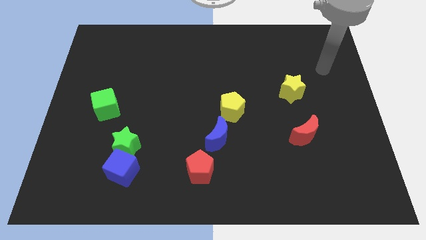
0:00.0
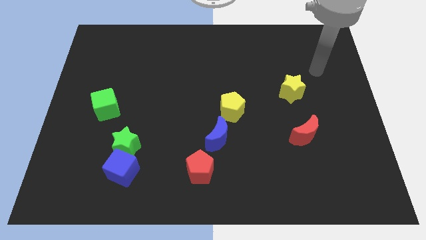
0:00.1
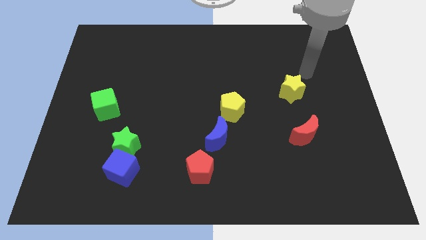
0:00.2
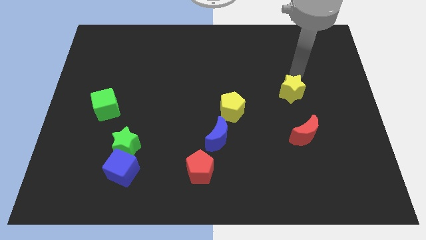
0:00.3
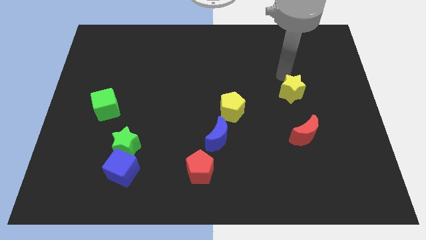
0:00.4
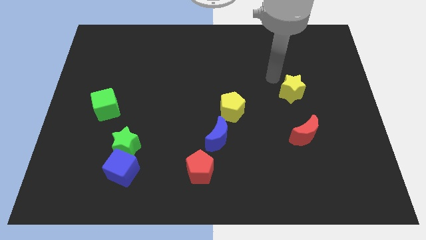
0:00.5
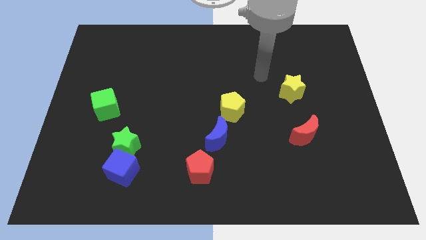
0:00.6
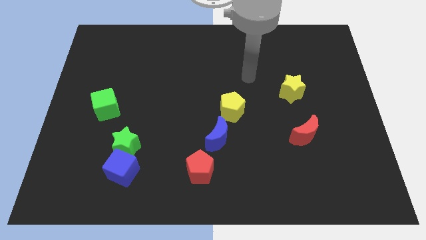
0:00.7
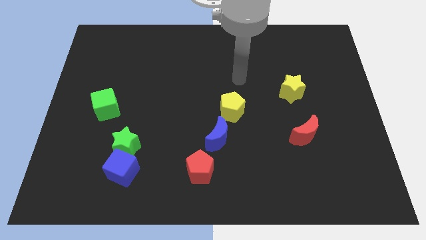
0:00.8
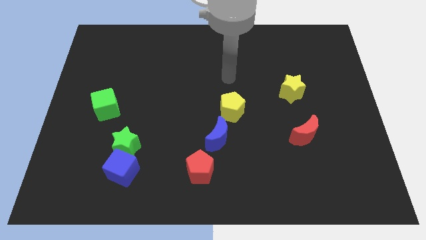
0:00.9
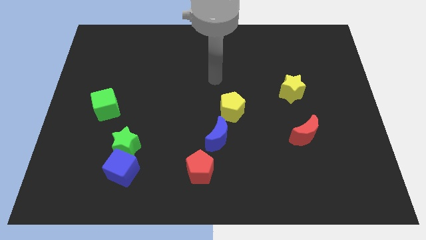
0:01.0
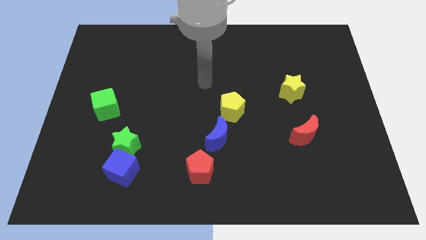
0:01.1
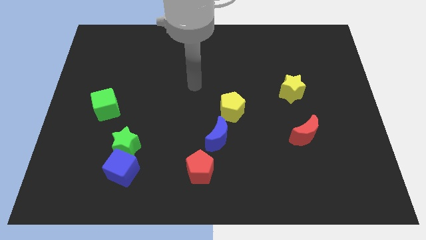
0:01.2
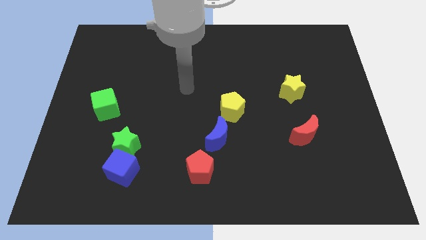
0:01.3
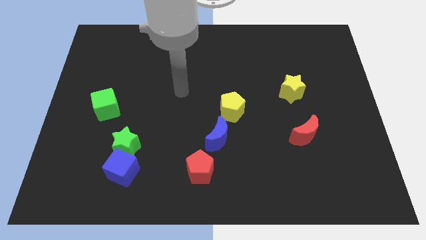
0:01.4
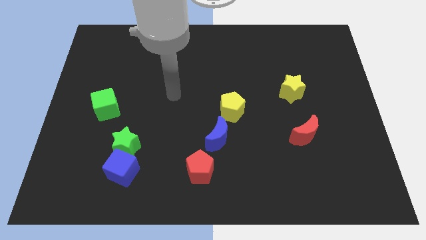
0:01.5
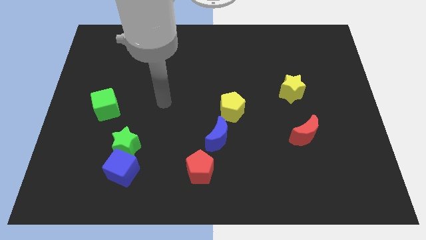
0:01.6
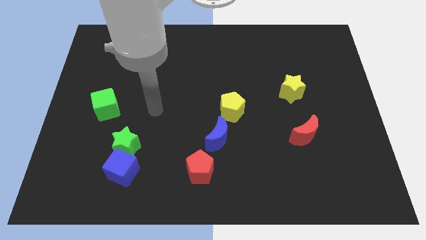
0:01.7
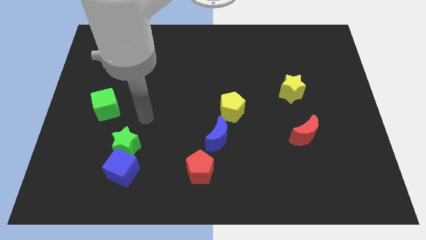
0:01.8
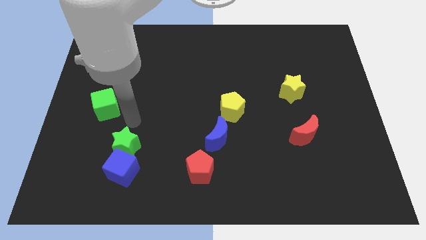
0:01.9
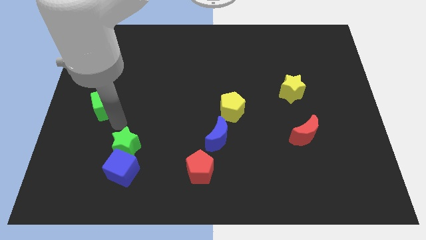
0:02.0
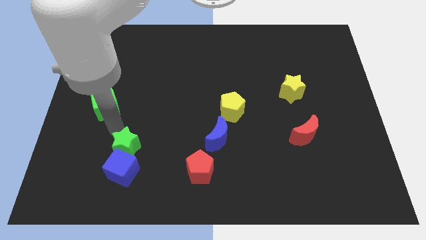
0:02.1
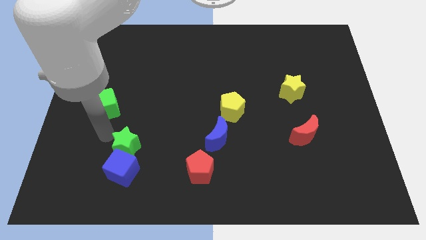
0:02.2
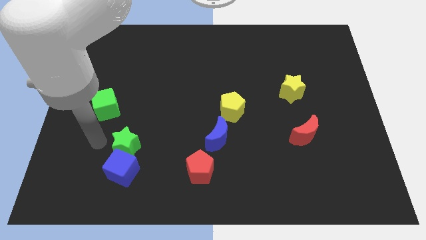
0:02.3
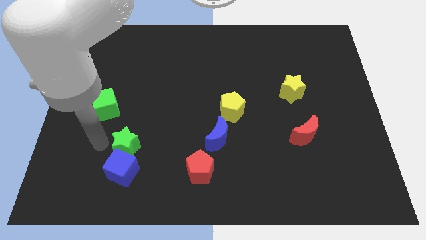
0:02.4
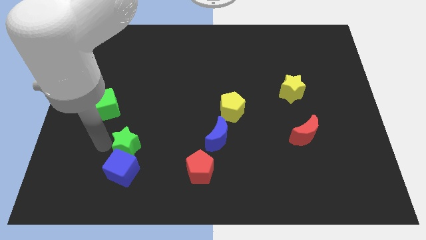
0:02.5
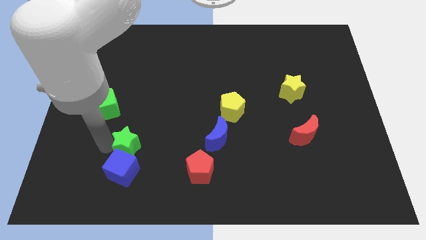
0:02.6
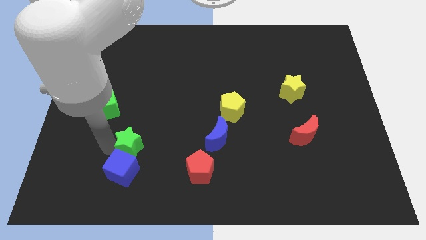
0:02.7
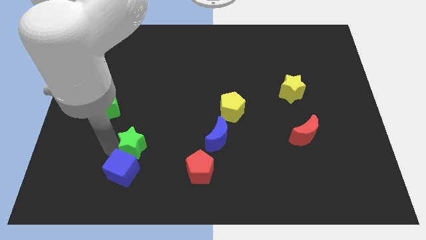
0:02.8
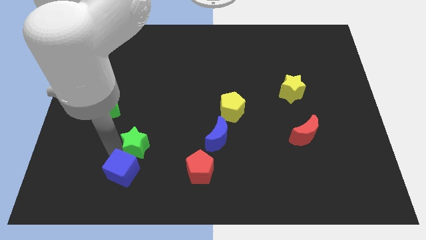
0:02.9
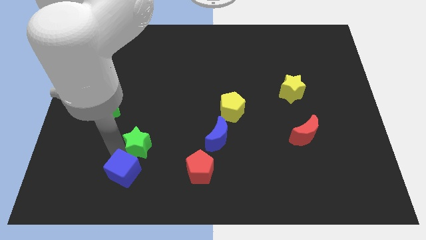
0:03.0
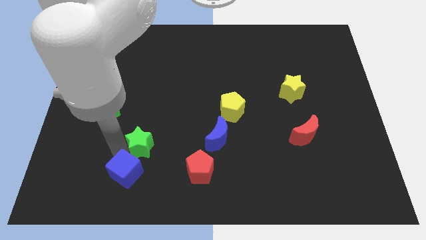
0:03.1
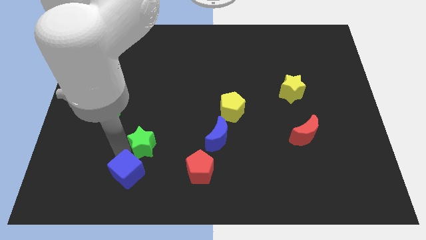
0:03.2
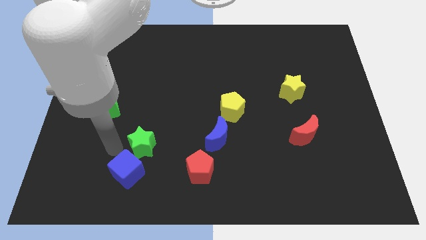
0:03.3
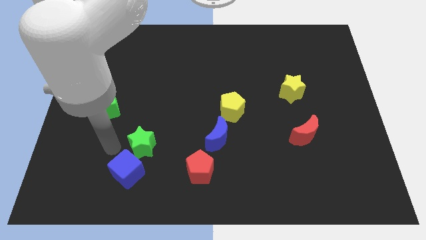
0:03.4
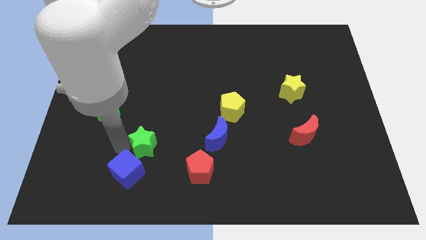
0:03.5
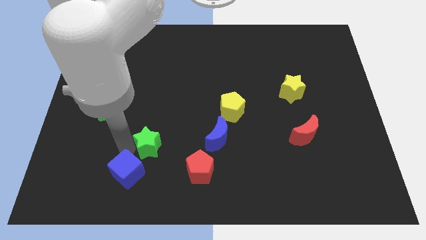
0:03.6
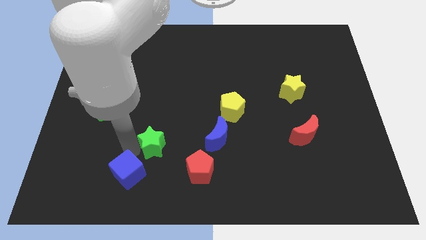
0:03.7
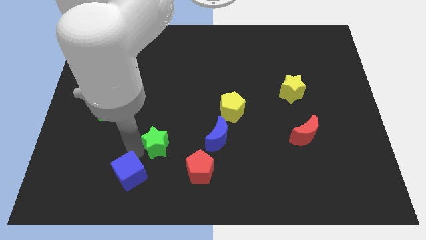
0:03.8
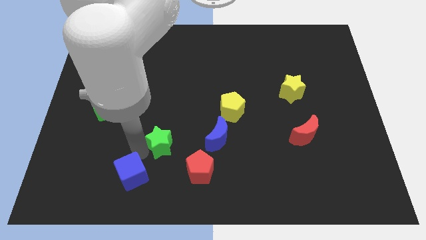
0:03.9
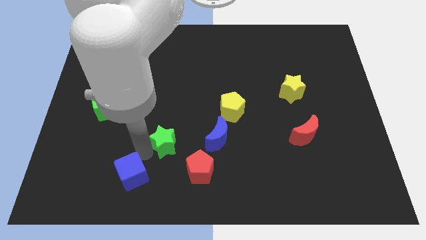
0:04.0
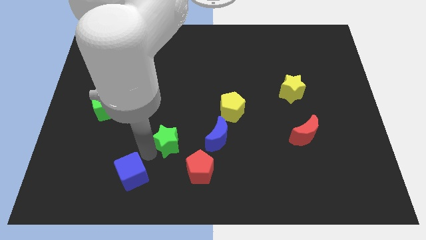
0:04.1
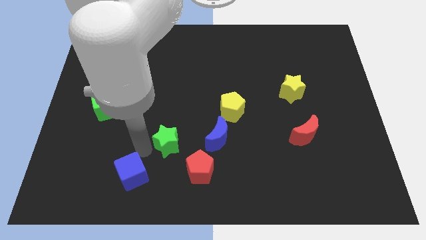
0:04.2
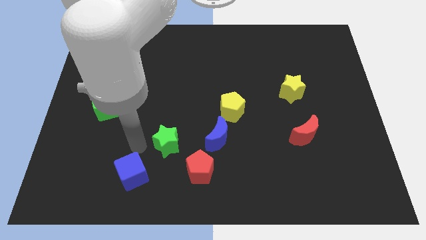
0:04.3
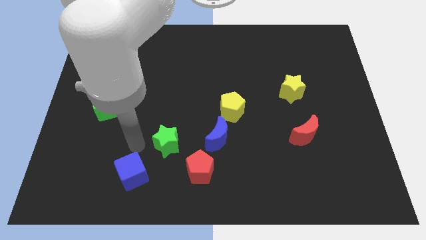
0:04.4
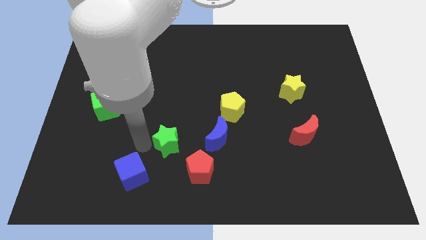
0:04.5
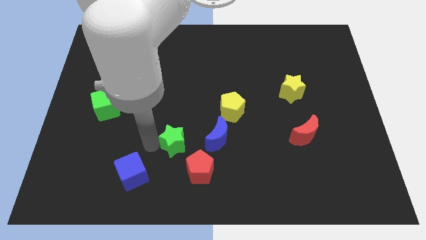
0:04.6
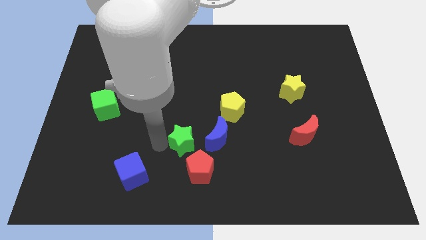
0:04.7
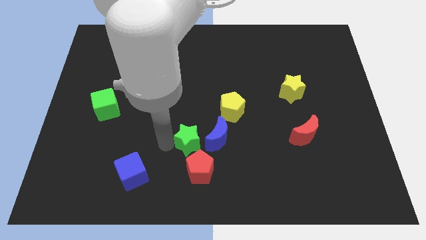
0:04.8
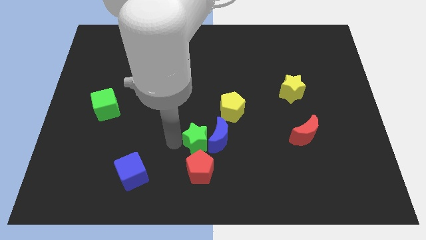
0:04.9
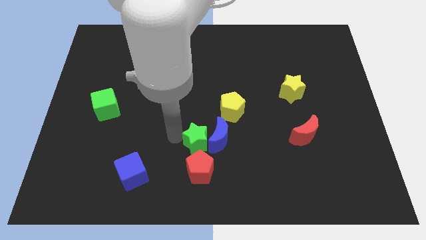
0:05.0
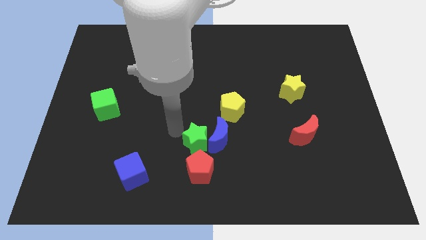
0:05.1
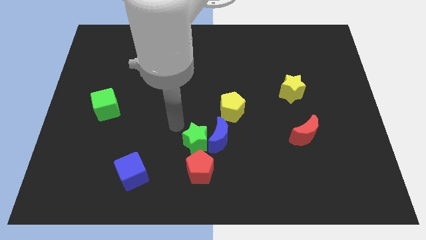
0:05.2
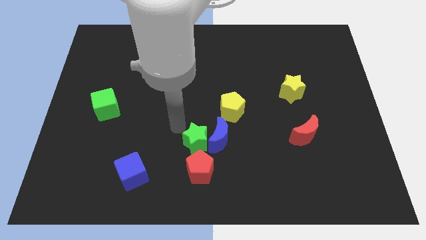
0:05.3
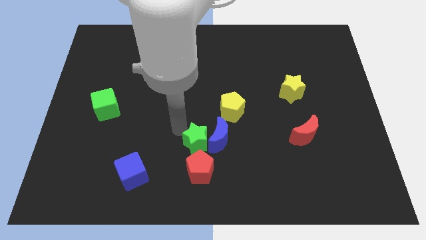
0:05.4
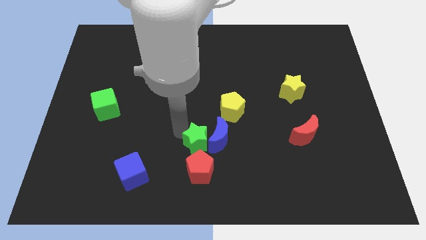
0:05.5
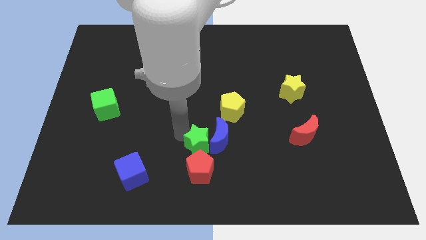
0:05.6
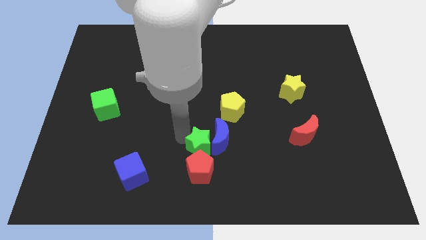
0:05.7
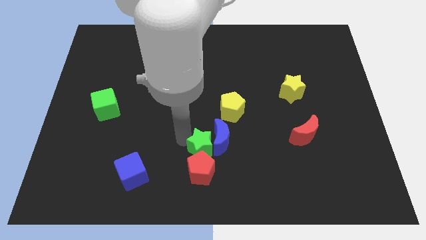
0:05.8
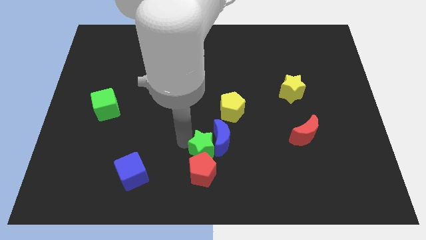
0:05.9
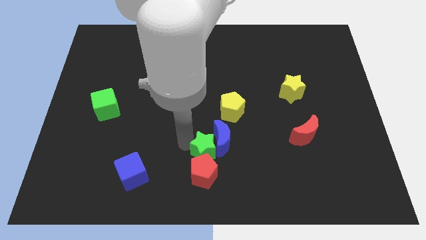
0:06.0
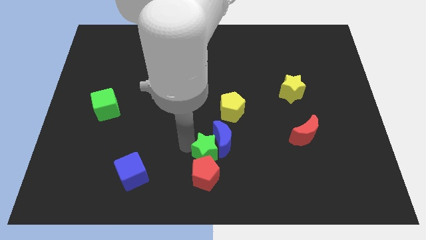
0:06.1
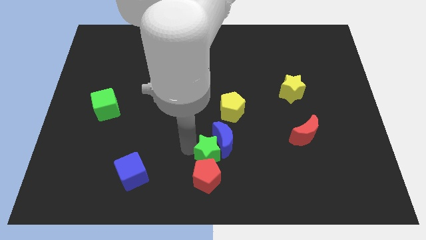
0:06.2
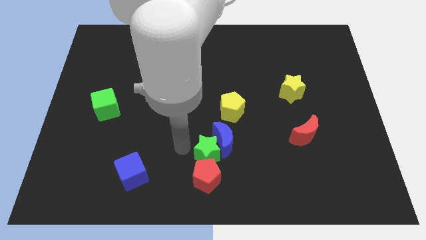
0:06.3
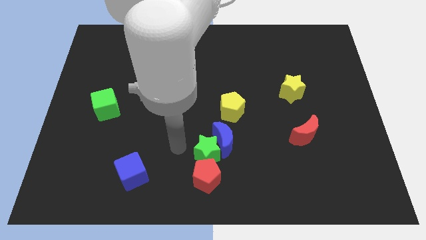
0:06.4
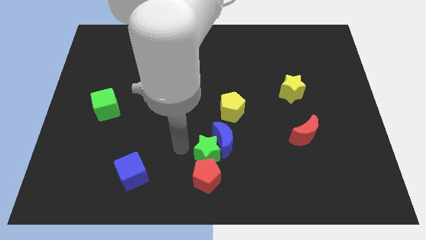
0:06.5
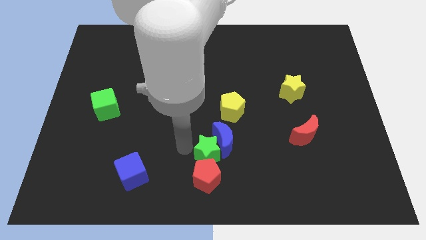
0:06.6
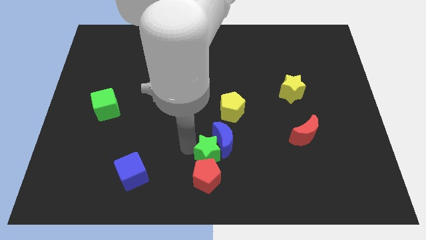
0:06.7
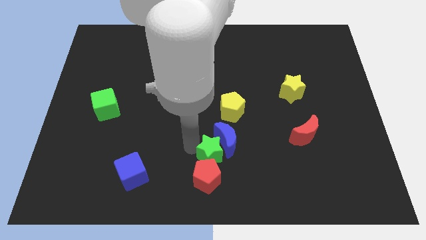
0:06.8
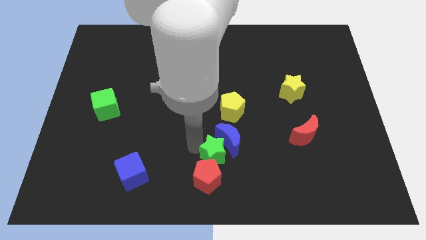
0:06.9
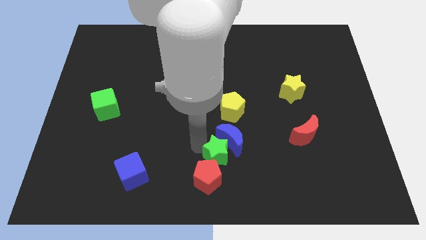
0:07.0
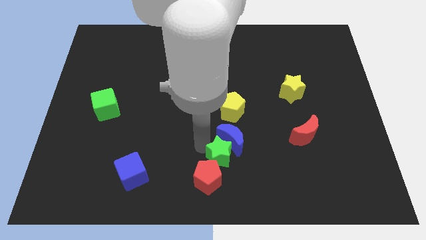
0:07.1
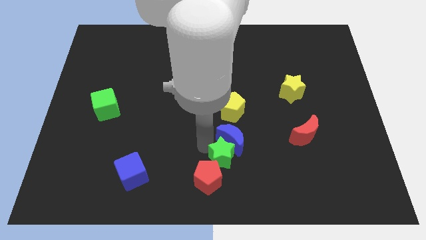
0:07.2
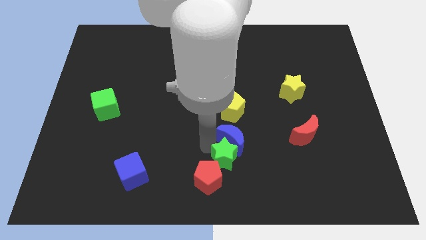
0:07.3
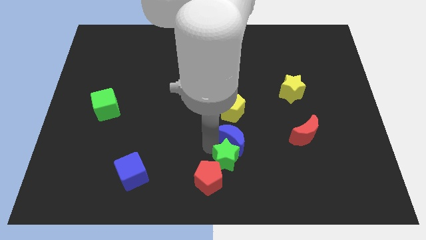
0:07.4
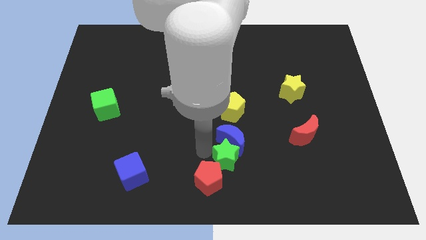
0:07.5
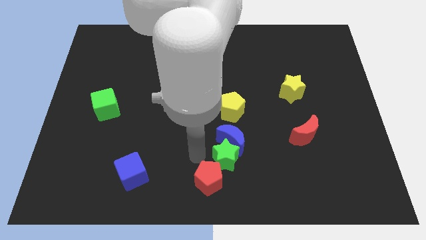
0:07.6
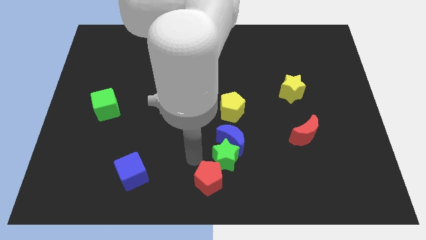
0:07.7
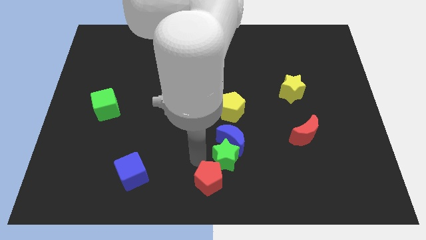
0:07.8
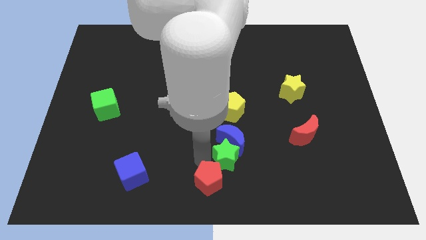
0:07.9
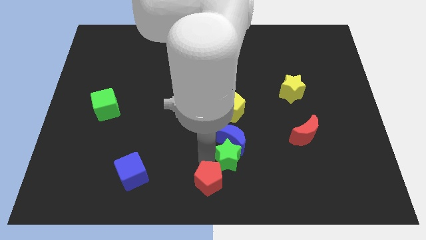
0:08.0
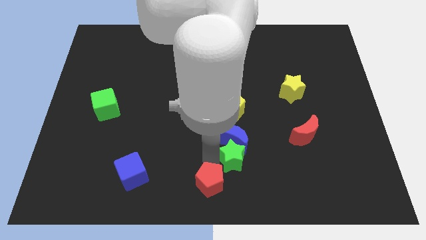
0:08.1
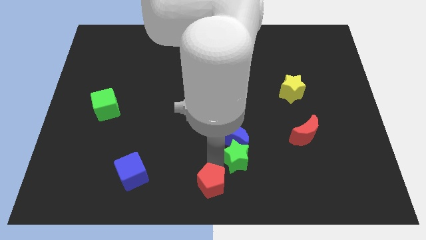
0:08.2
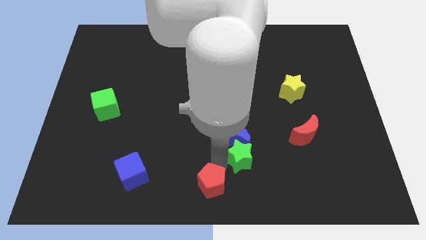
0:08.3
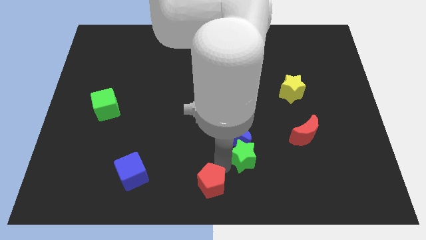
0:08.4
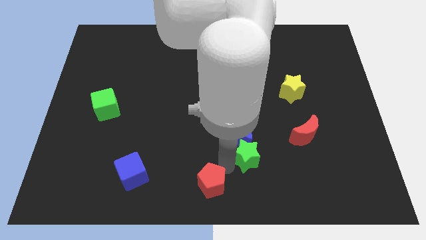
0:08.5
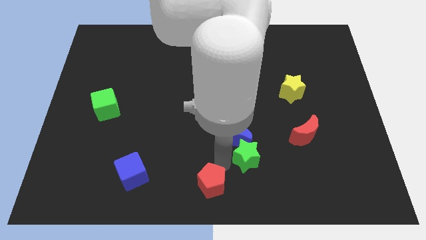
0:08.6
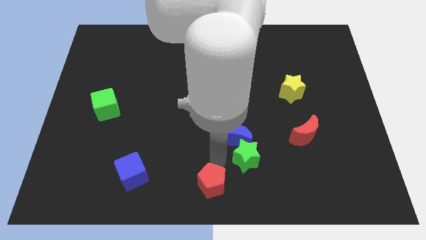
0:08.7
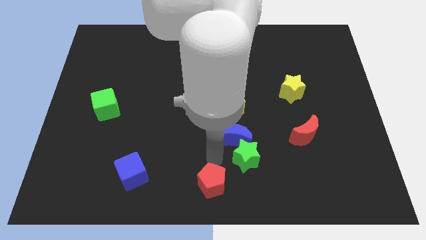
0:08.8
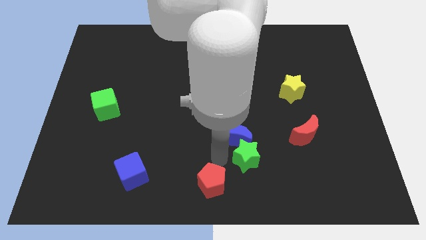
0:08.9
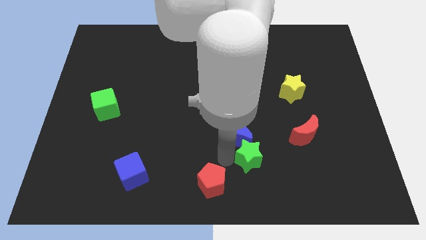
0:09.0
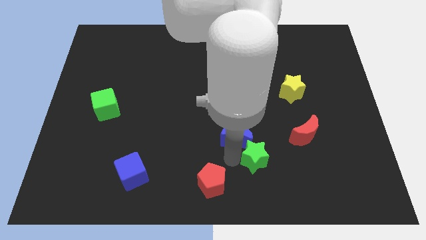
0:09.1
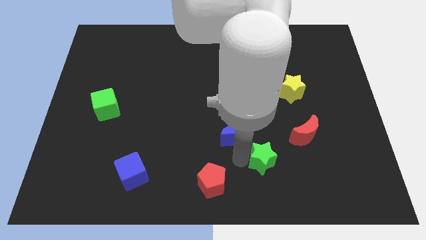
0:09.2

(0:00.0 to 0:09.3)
slide the green star to the bottom left of the red moon
